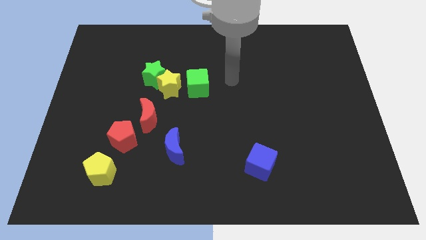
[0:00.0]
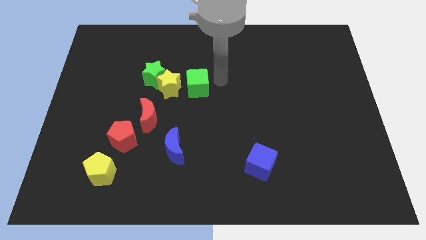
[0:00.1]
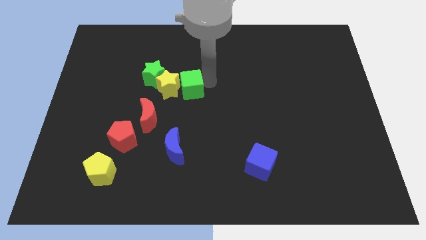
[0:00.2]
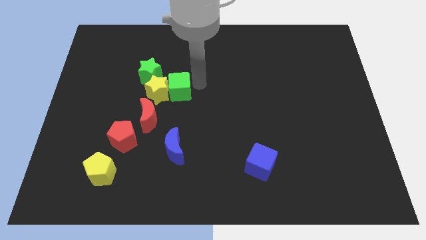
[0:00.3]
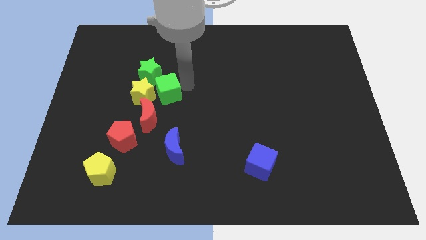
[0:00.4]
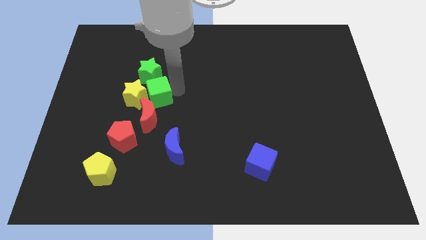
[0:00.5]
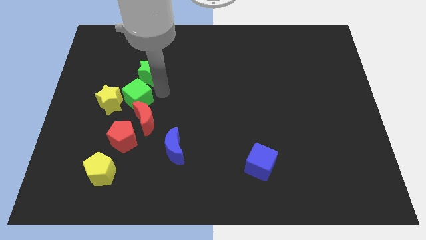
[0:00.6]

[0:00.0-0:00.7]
separate the green star from the yellow star

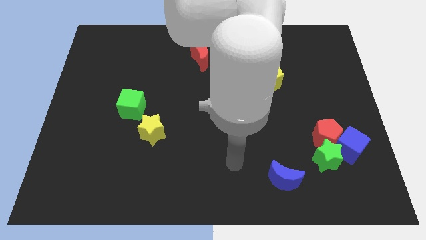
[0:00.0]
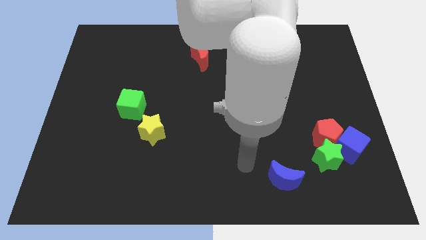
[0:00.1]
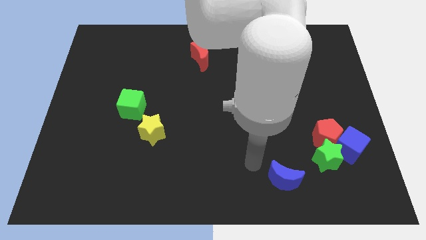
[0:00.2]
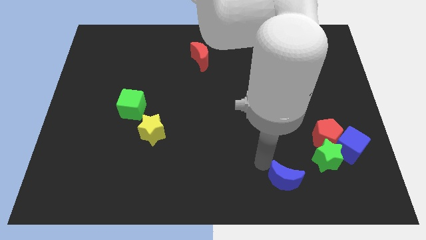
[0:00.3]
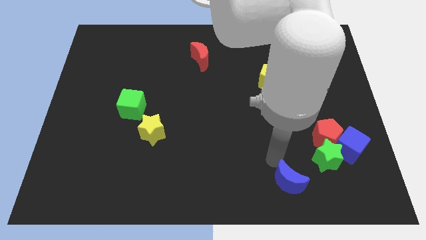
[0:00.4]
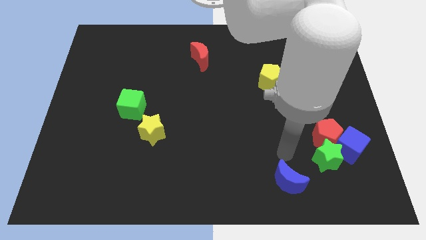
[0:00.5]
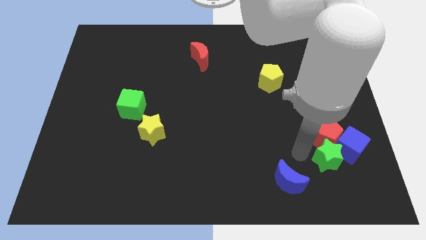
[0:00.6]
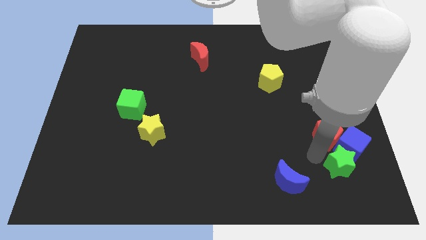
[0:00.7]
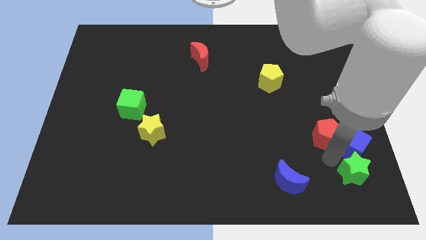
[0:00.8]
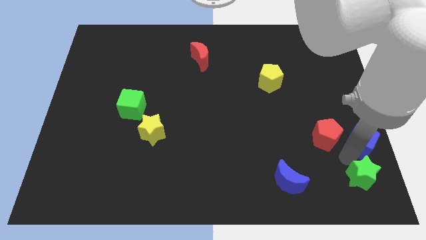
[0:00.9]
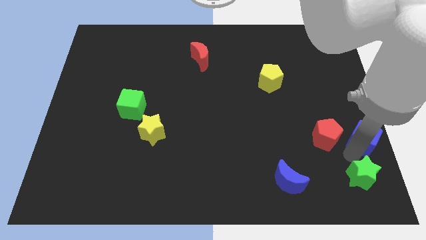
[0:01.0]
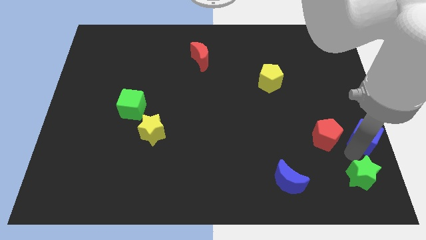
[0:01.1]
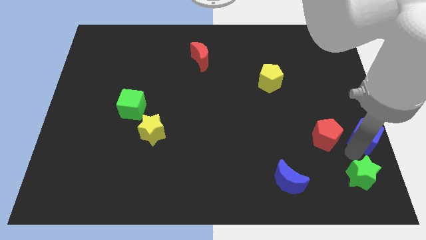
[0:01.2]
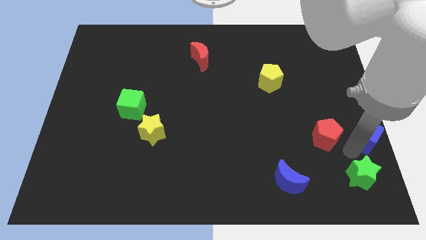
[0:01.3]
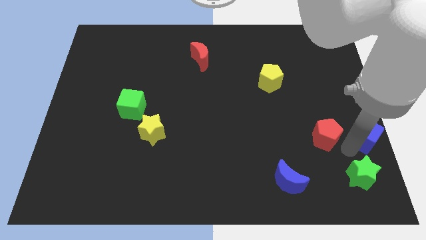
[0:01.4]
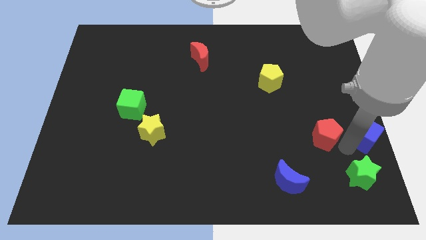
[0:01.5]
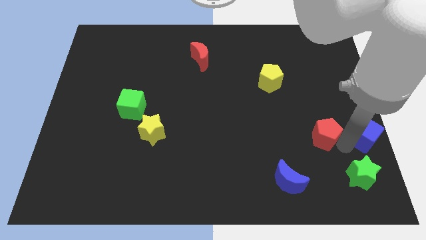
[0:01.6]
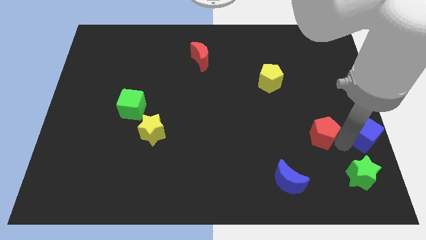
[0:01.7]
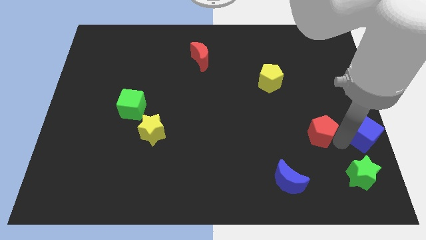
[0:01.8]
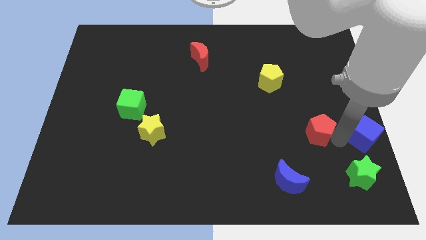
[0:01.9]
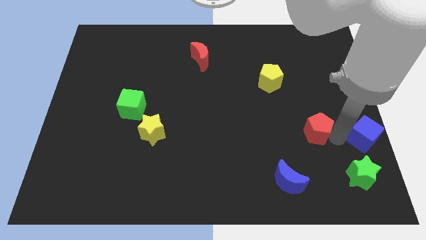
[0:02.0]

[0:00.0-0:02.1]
move the red pentagon away from the blue cube and green star

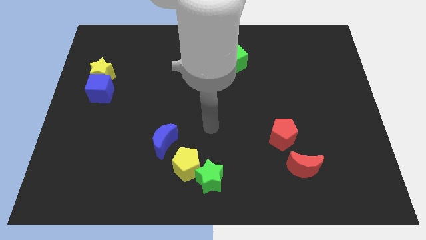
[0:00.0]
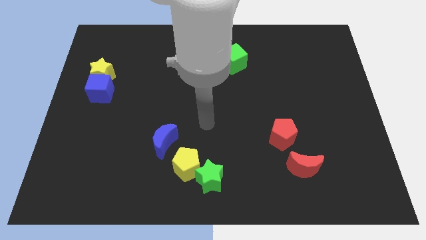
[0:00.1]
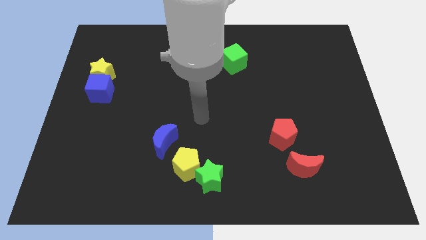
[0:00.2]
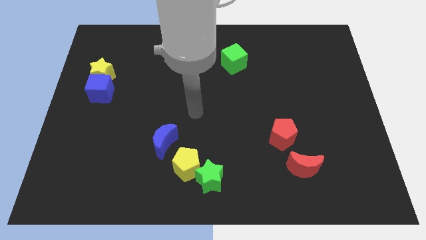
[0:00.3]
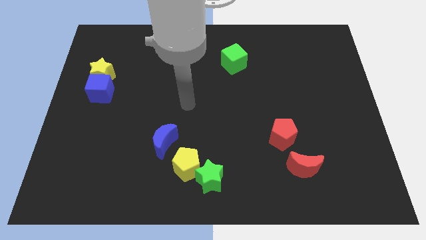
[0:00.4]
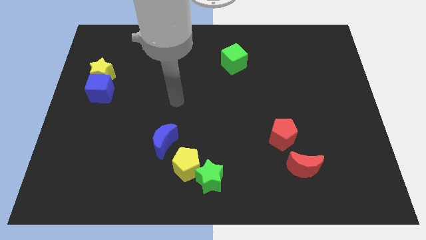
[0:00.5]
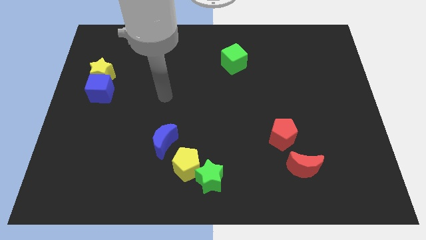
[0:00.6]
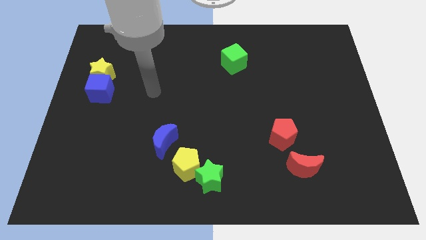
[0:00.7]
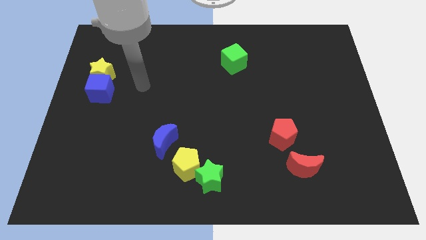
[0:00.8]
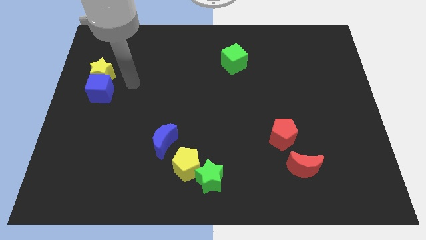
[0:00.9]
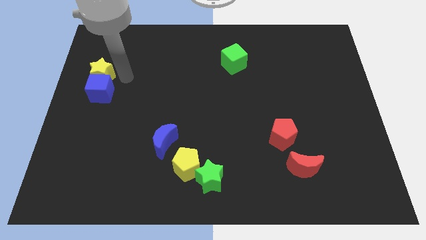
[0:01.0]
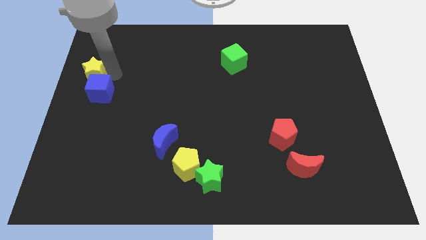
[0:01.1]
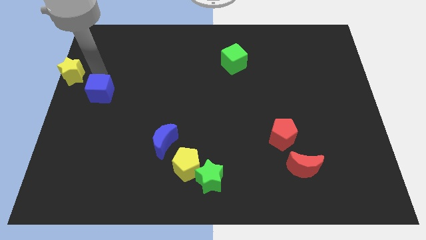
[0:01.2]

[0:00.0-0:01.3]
pull the blue cube apart from the yellow star

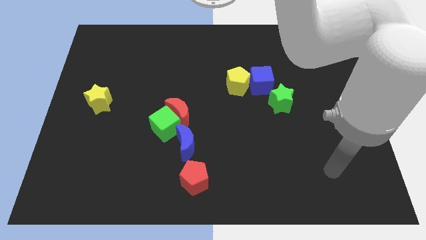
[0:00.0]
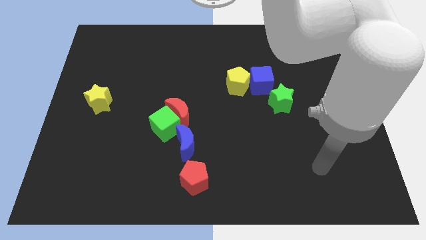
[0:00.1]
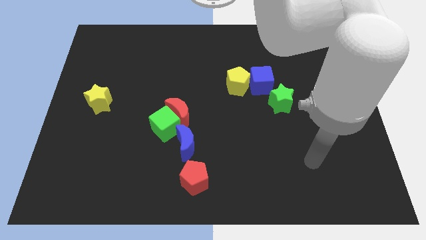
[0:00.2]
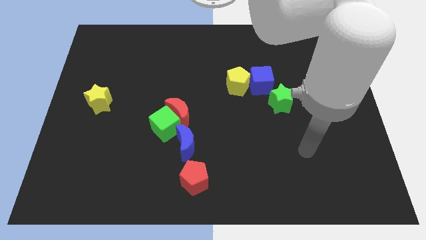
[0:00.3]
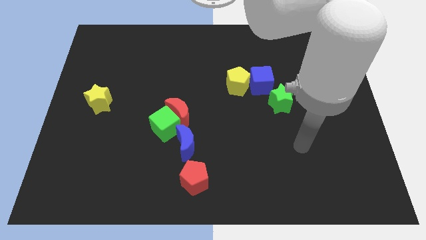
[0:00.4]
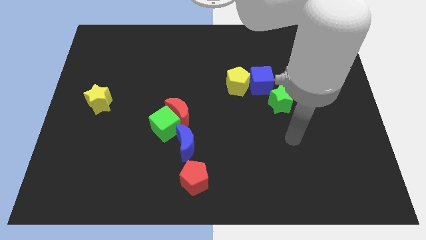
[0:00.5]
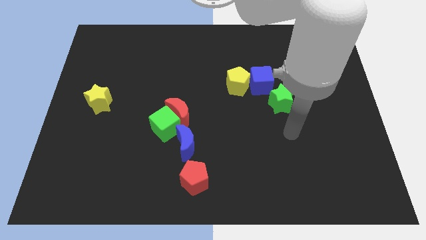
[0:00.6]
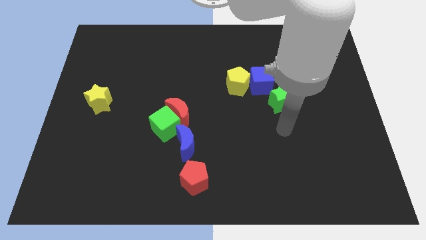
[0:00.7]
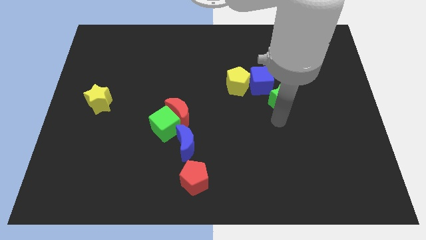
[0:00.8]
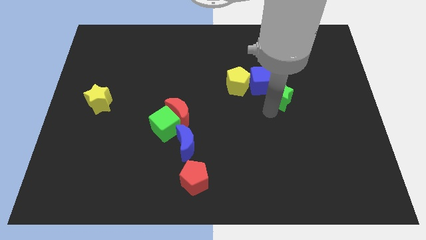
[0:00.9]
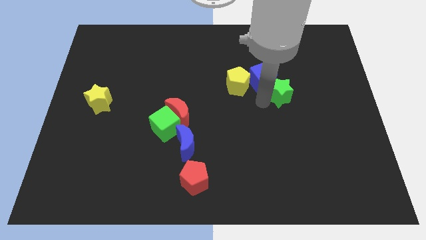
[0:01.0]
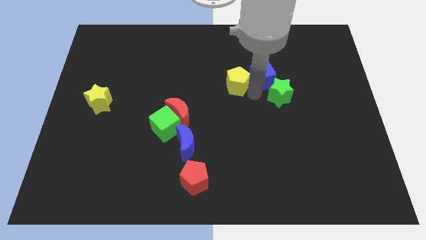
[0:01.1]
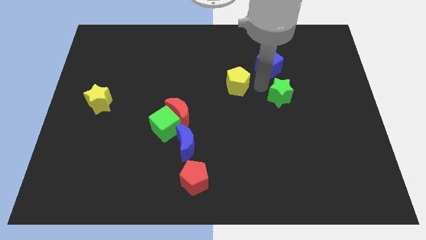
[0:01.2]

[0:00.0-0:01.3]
separate the yellow pentagon from the blue cube

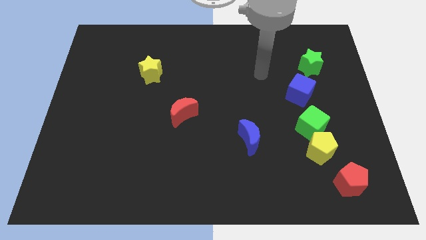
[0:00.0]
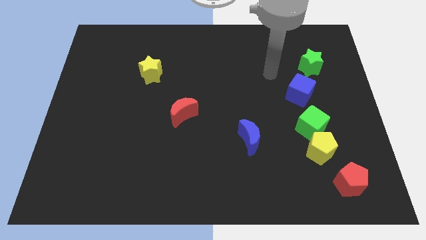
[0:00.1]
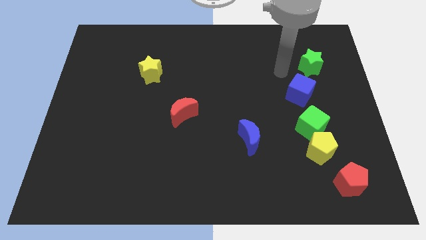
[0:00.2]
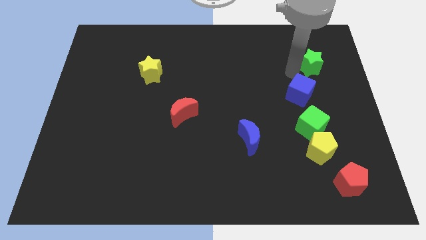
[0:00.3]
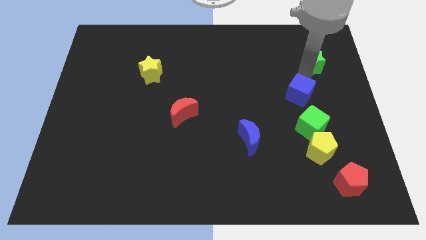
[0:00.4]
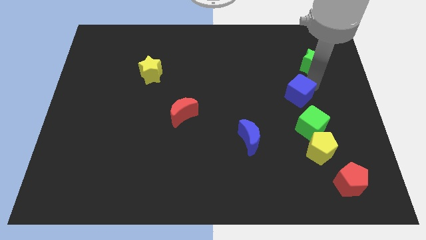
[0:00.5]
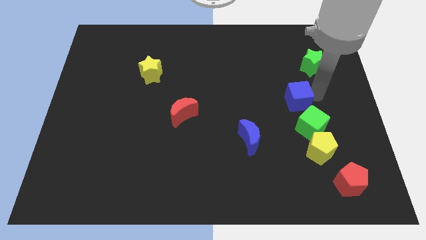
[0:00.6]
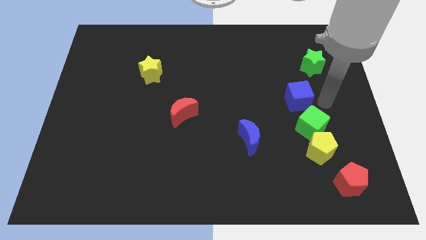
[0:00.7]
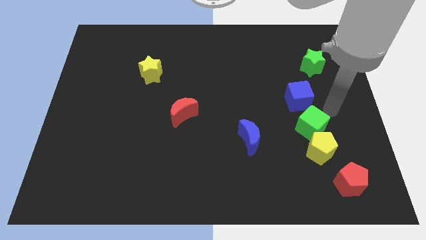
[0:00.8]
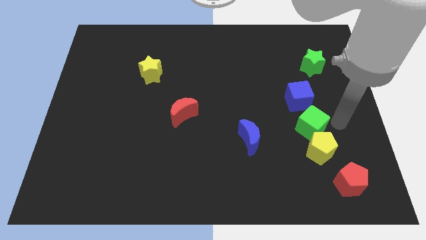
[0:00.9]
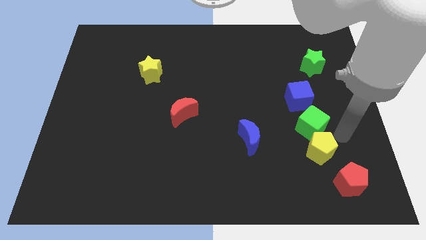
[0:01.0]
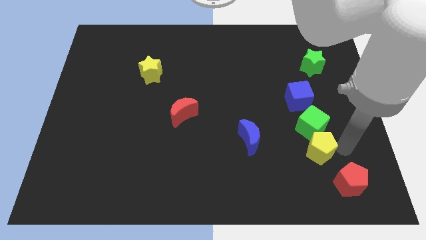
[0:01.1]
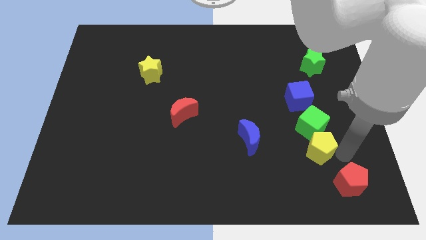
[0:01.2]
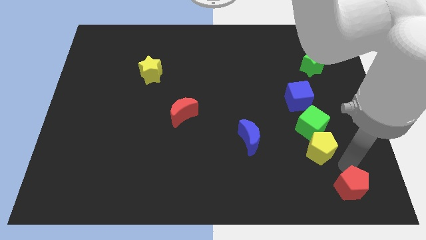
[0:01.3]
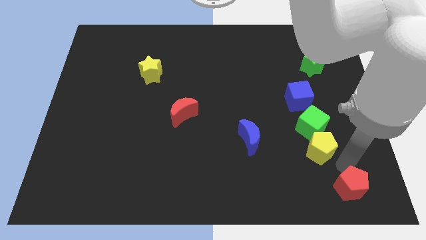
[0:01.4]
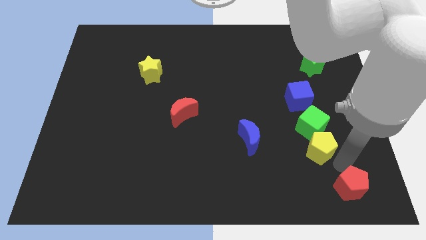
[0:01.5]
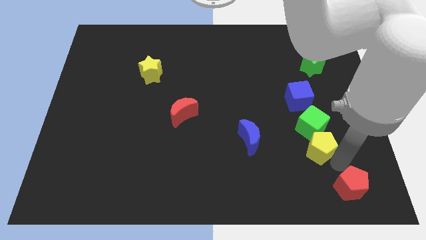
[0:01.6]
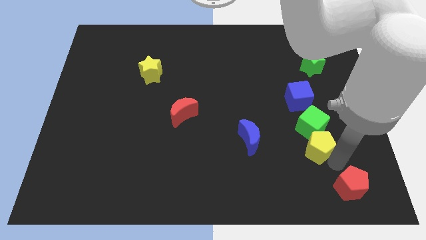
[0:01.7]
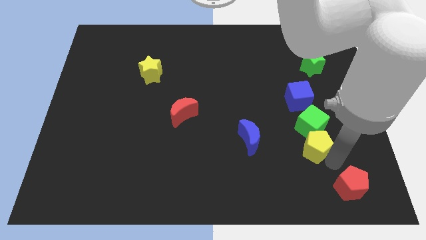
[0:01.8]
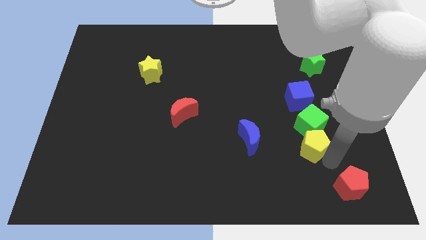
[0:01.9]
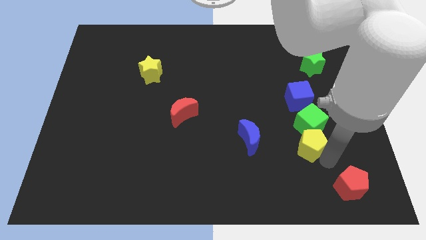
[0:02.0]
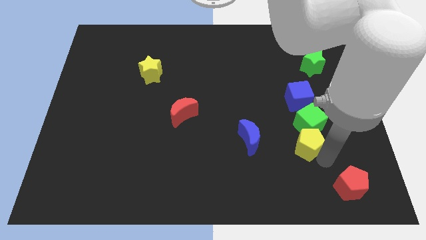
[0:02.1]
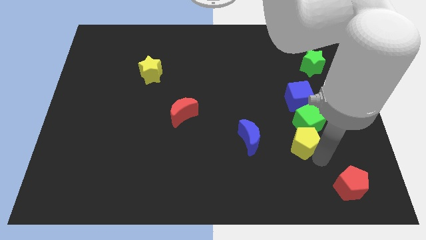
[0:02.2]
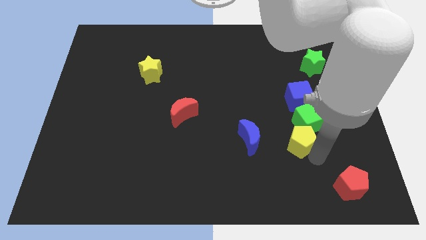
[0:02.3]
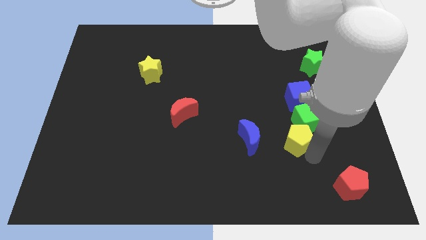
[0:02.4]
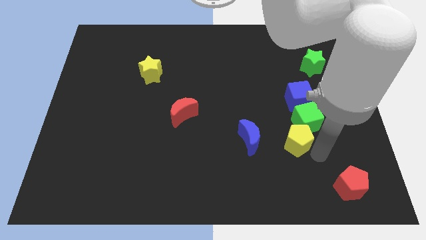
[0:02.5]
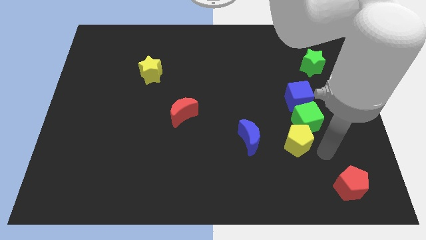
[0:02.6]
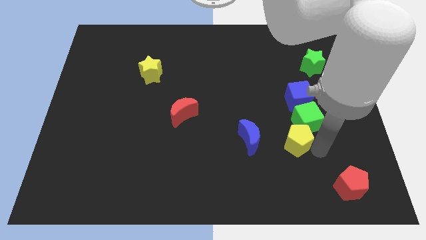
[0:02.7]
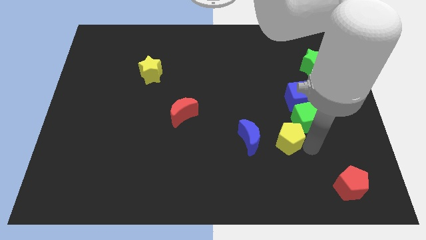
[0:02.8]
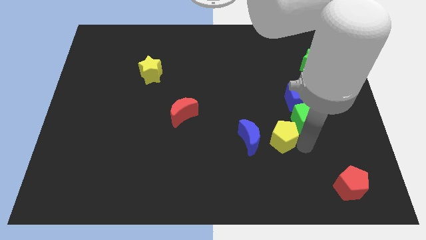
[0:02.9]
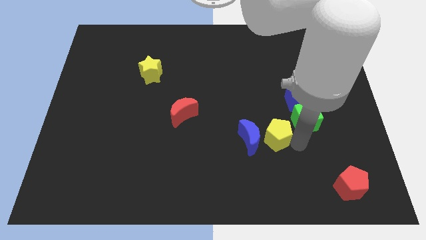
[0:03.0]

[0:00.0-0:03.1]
pull the yellow pentagon apart from the green cube and red pentagon

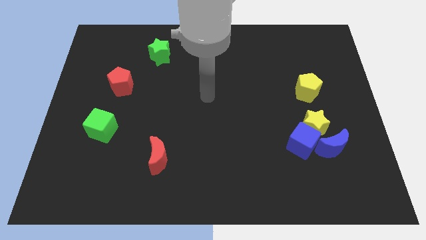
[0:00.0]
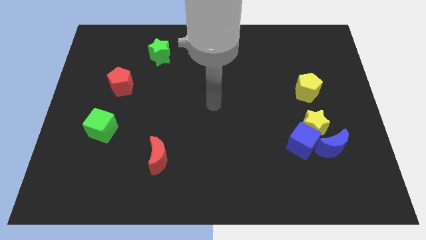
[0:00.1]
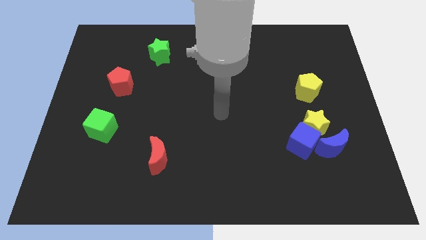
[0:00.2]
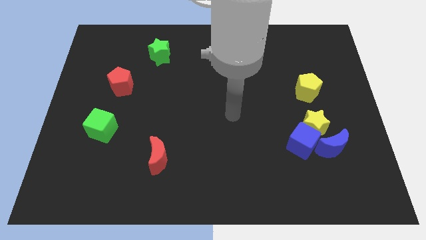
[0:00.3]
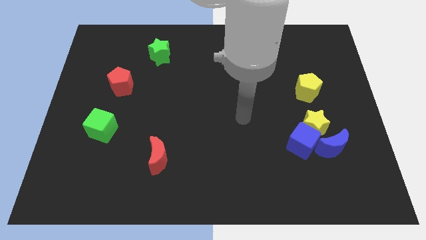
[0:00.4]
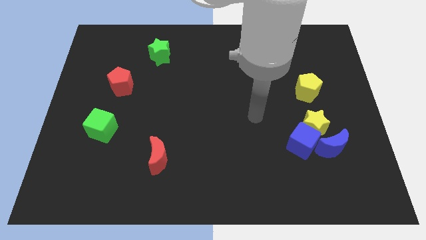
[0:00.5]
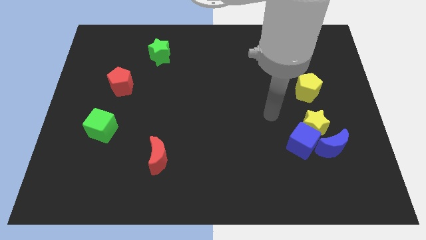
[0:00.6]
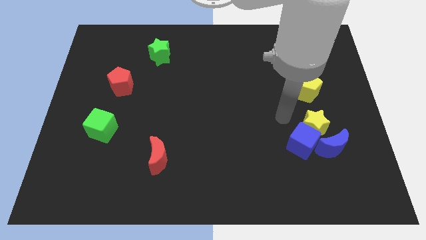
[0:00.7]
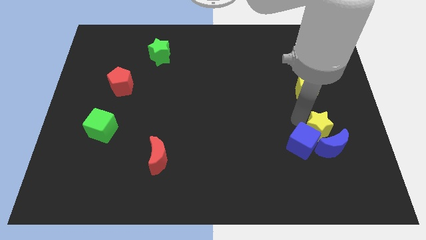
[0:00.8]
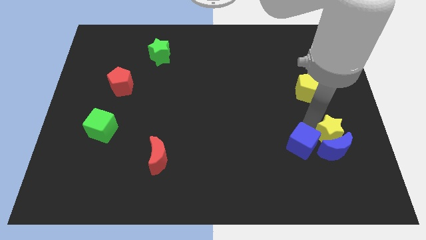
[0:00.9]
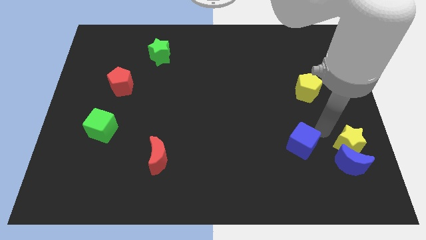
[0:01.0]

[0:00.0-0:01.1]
move the blue cube away from the yellow star and blue moon
